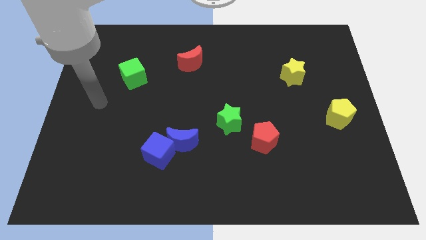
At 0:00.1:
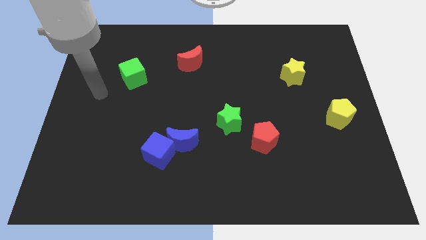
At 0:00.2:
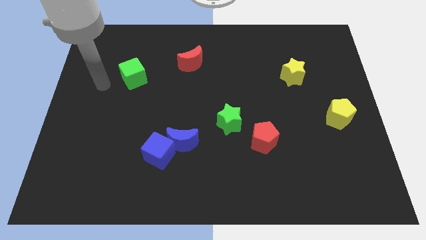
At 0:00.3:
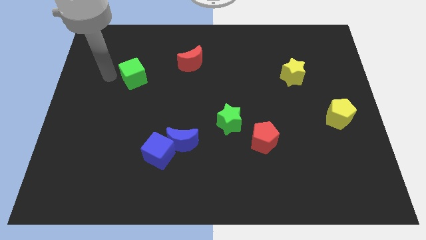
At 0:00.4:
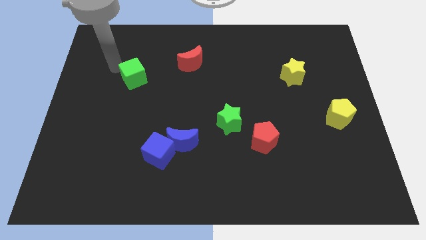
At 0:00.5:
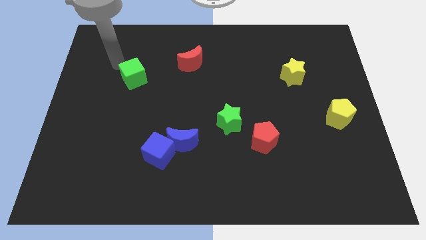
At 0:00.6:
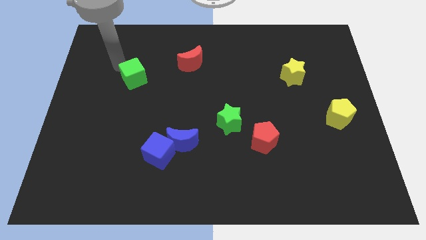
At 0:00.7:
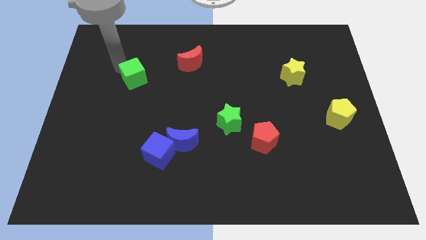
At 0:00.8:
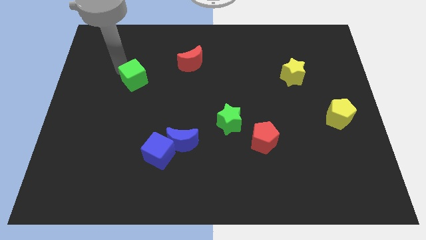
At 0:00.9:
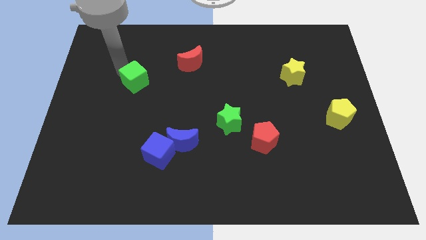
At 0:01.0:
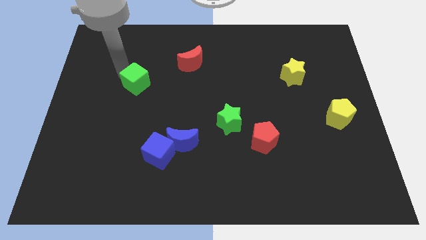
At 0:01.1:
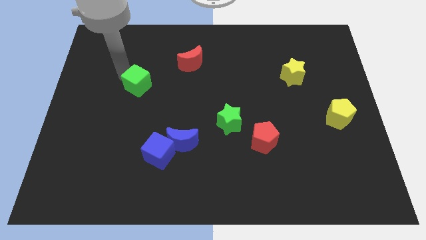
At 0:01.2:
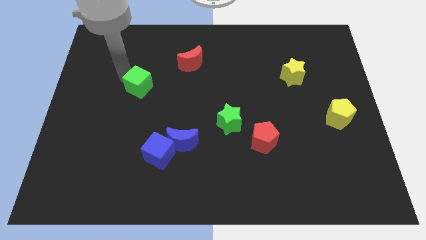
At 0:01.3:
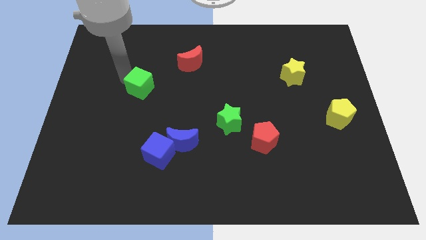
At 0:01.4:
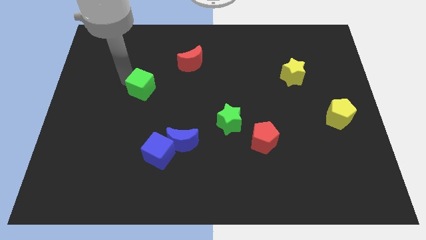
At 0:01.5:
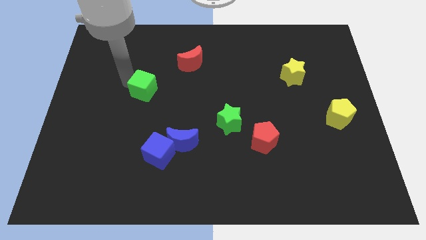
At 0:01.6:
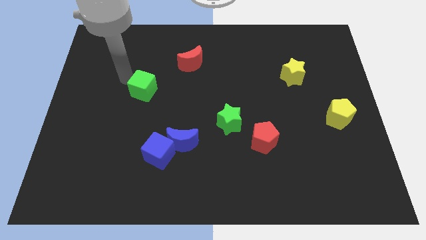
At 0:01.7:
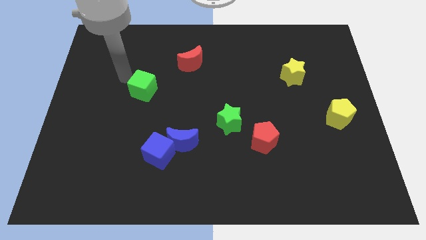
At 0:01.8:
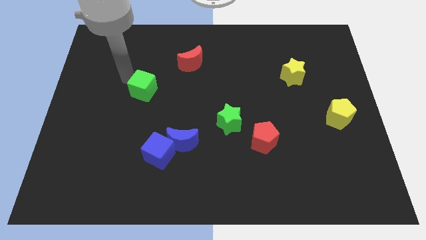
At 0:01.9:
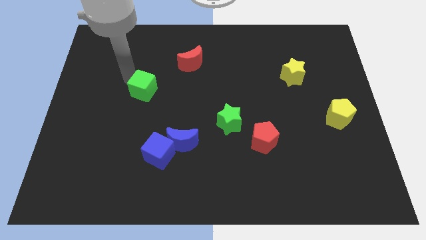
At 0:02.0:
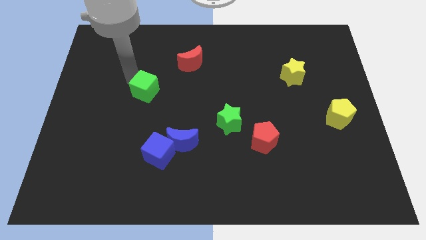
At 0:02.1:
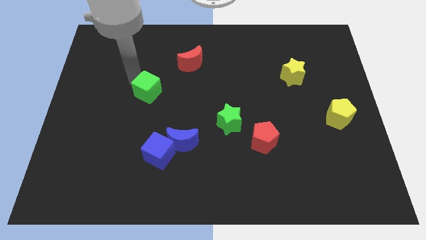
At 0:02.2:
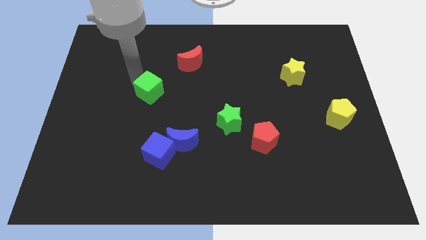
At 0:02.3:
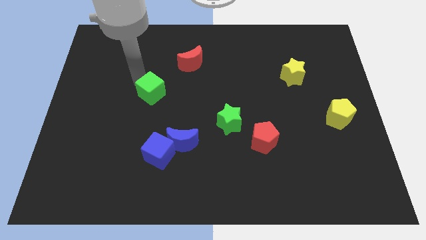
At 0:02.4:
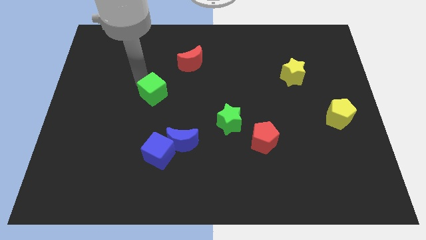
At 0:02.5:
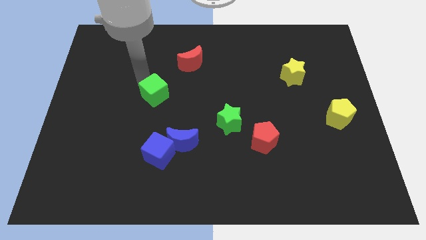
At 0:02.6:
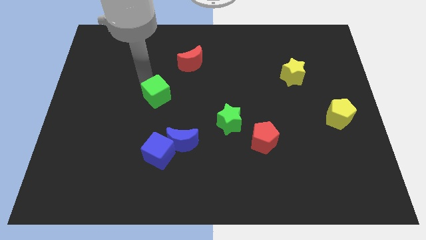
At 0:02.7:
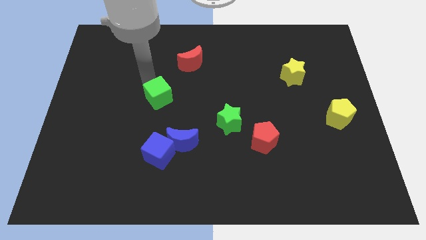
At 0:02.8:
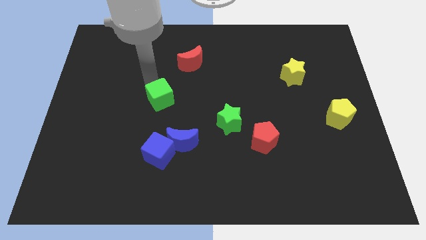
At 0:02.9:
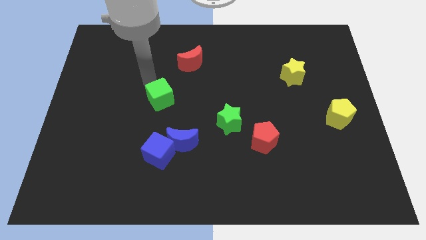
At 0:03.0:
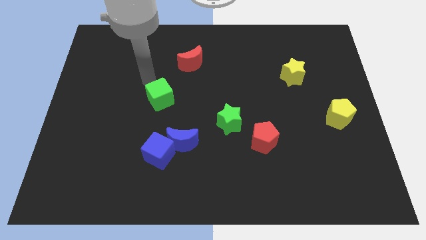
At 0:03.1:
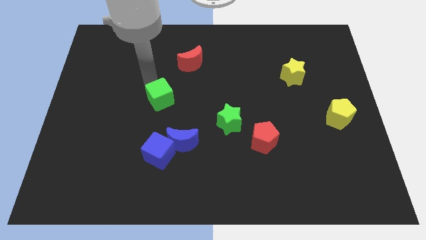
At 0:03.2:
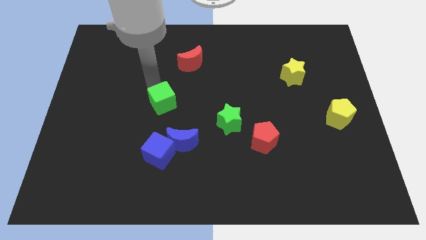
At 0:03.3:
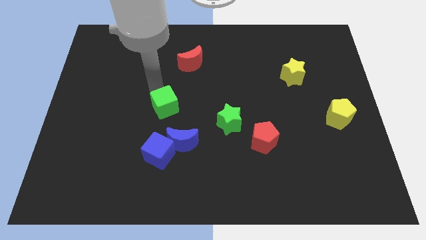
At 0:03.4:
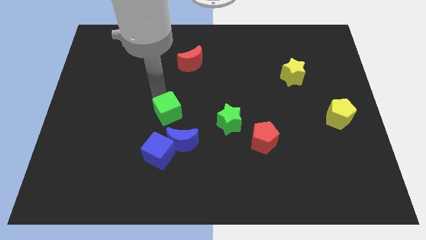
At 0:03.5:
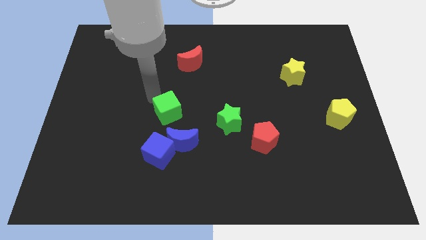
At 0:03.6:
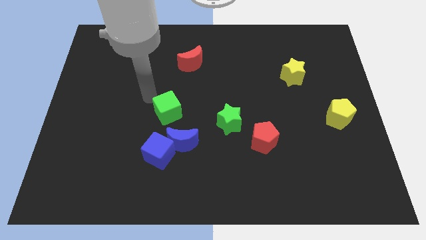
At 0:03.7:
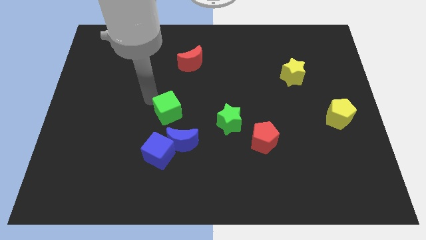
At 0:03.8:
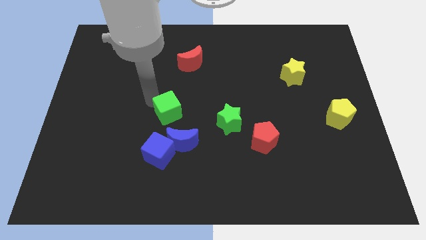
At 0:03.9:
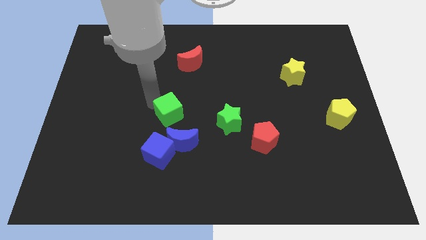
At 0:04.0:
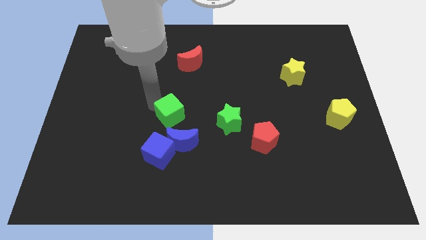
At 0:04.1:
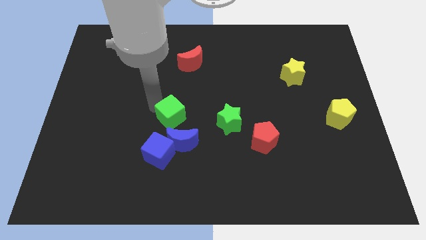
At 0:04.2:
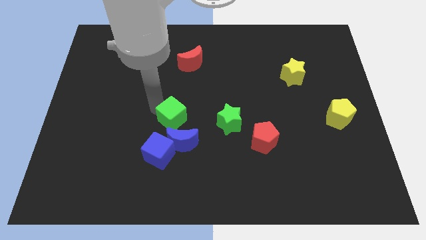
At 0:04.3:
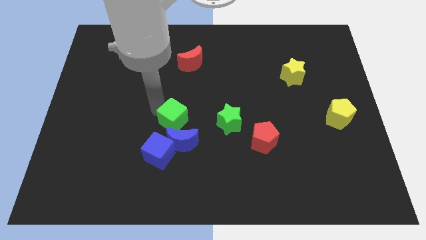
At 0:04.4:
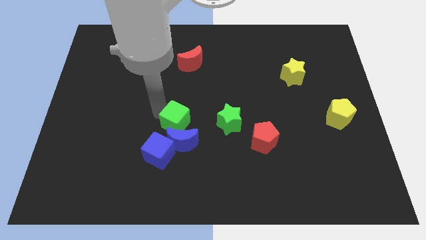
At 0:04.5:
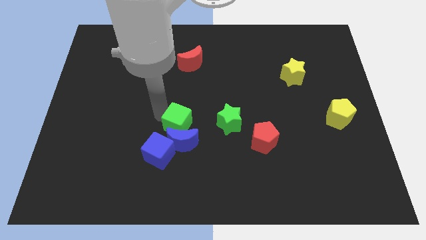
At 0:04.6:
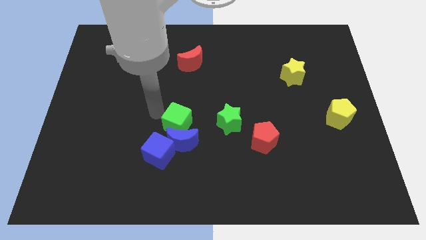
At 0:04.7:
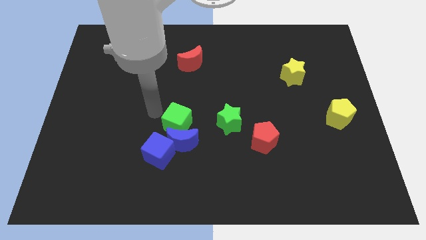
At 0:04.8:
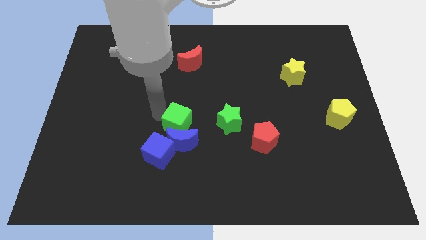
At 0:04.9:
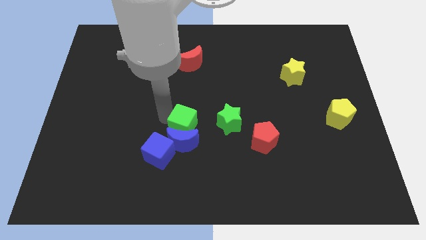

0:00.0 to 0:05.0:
slide the green cube diagonally downwards and to the right

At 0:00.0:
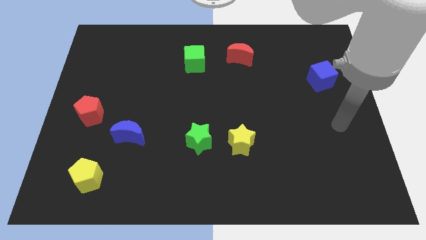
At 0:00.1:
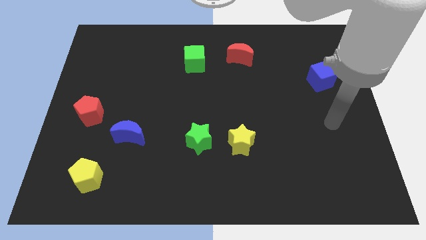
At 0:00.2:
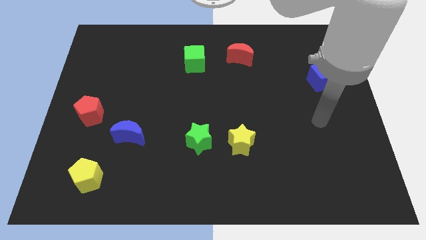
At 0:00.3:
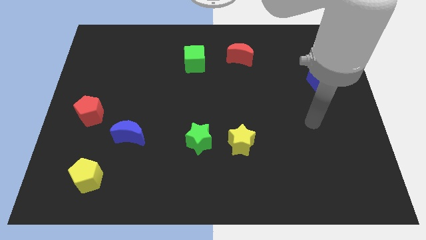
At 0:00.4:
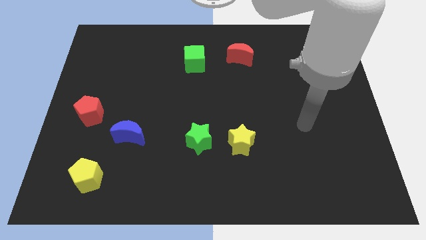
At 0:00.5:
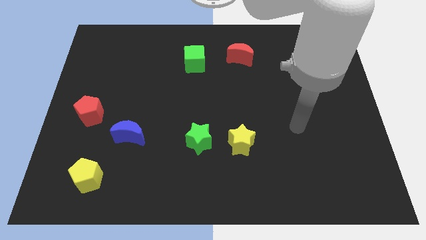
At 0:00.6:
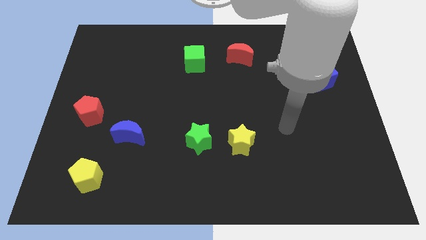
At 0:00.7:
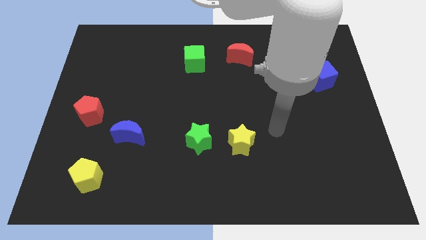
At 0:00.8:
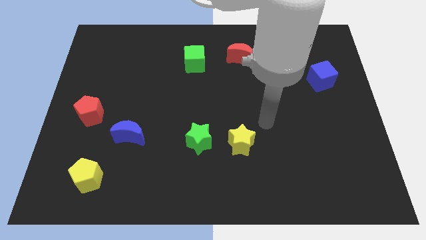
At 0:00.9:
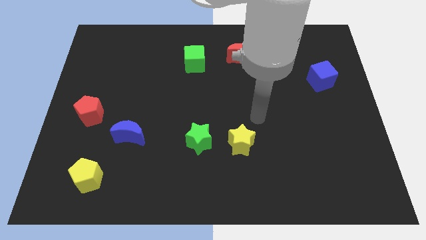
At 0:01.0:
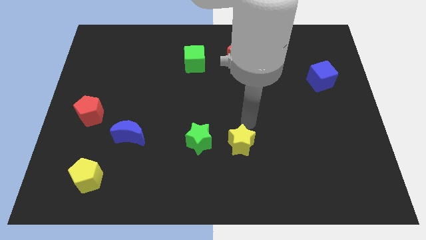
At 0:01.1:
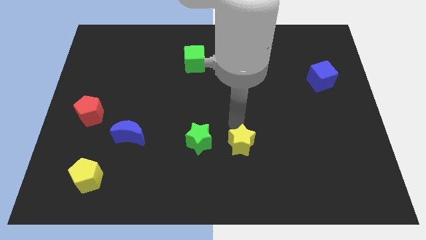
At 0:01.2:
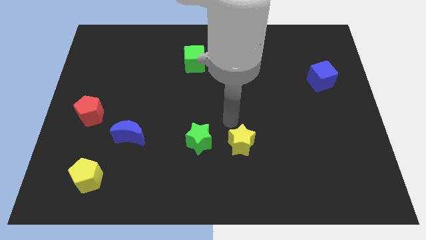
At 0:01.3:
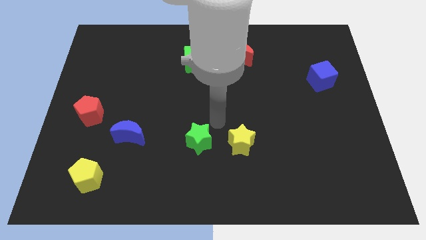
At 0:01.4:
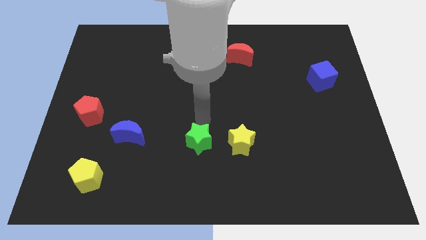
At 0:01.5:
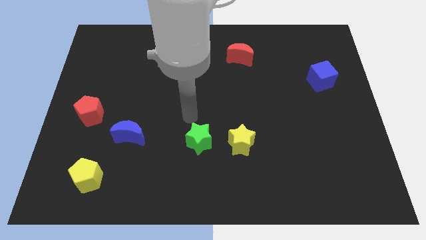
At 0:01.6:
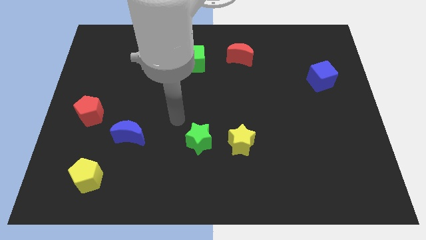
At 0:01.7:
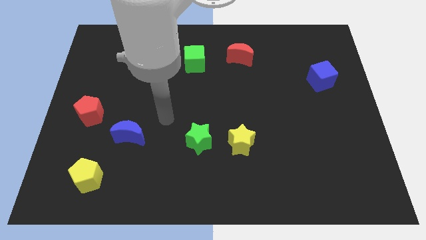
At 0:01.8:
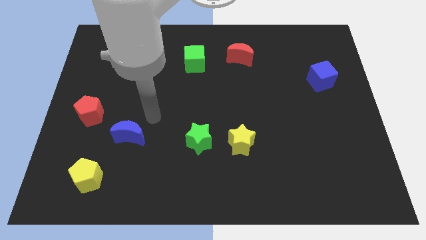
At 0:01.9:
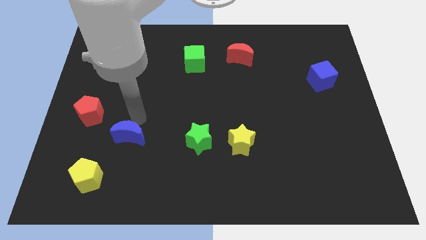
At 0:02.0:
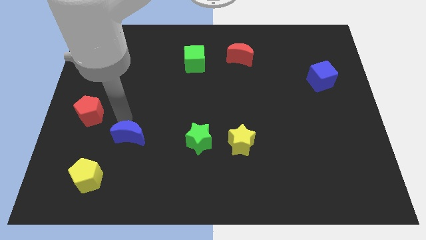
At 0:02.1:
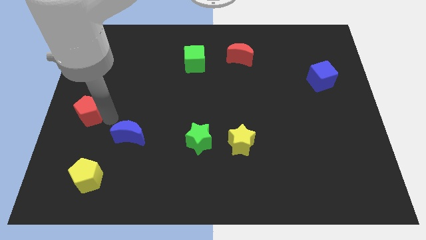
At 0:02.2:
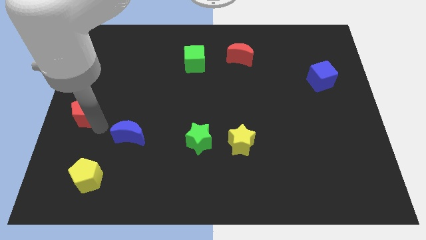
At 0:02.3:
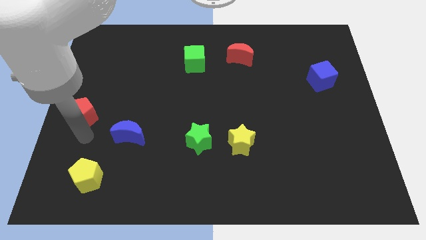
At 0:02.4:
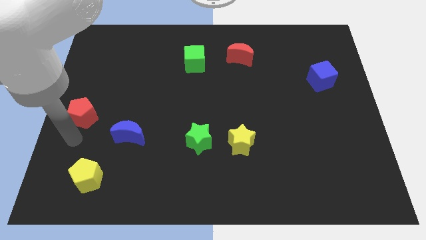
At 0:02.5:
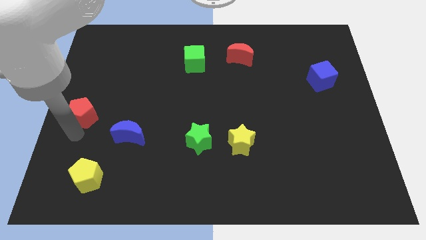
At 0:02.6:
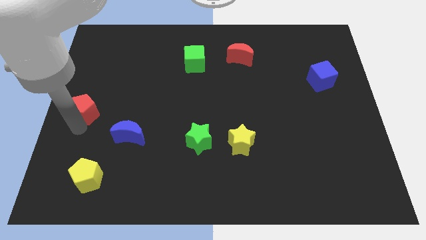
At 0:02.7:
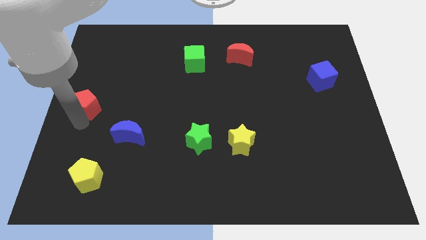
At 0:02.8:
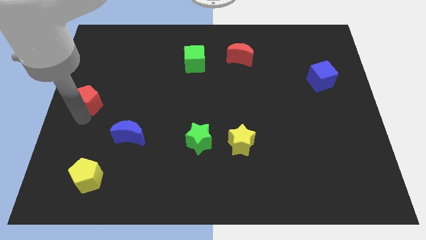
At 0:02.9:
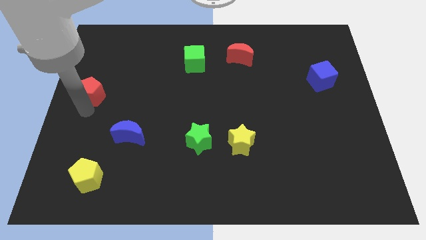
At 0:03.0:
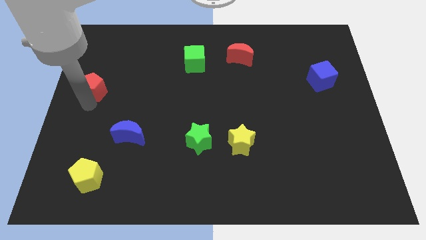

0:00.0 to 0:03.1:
slide the red pentagon slightly up
